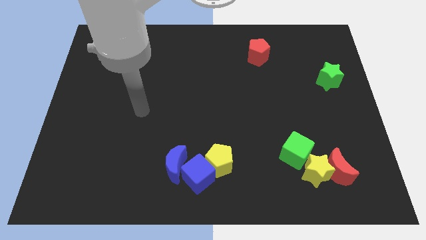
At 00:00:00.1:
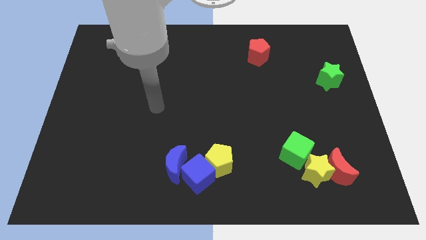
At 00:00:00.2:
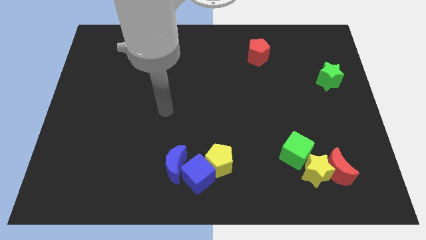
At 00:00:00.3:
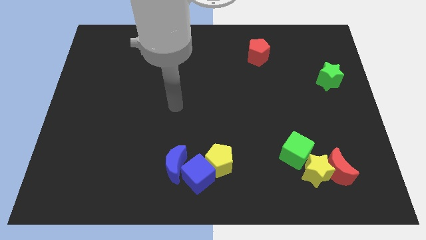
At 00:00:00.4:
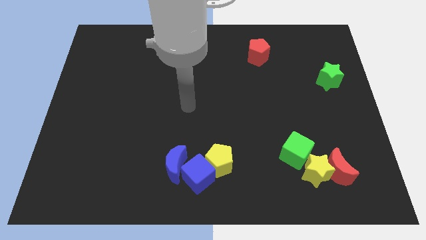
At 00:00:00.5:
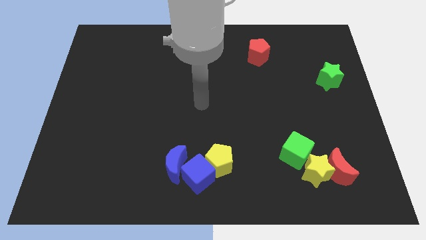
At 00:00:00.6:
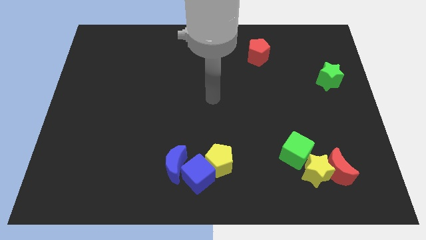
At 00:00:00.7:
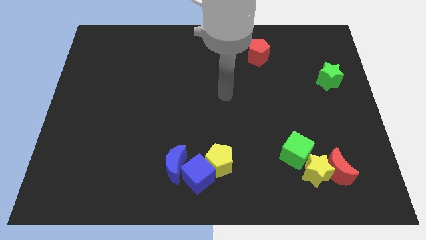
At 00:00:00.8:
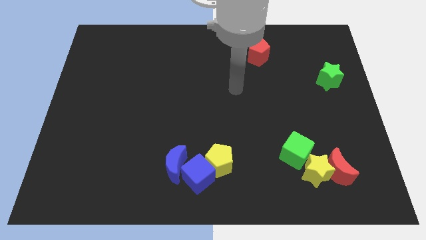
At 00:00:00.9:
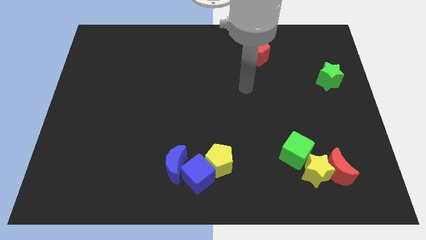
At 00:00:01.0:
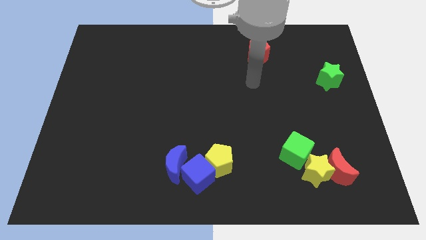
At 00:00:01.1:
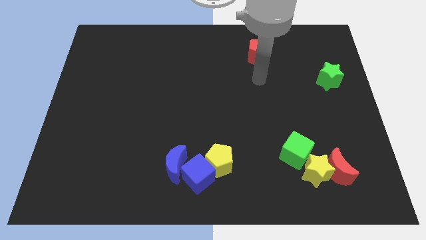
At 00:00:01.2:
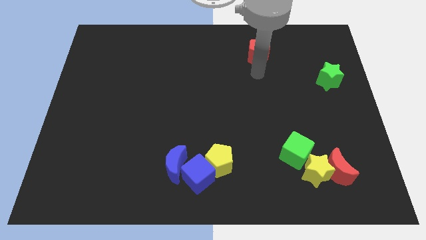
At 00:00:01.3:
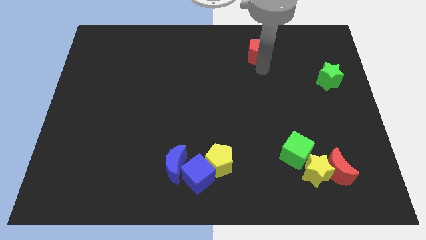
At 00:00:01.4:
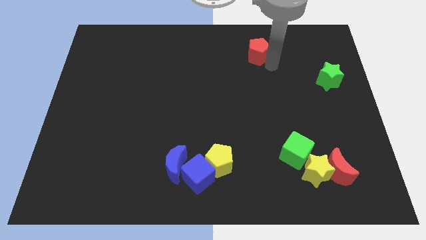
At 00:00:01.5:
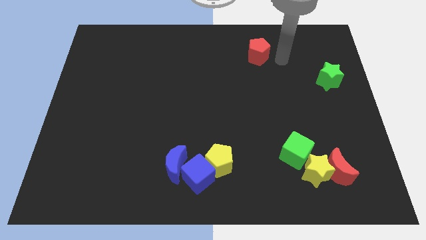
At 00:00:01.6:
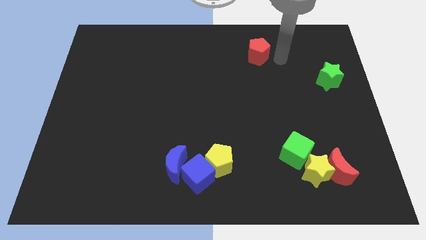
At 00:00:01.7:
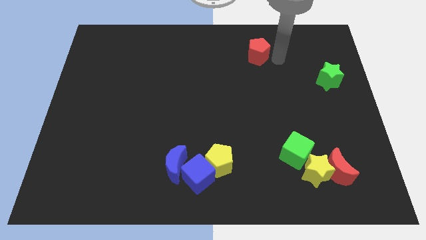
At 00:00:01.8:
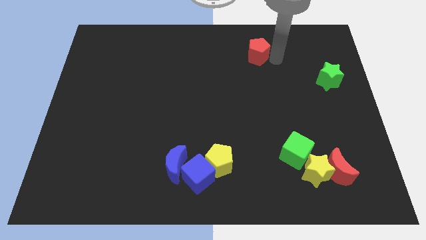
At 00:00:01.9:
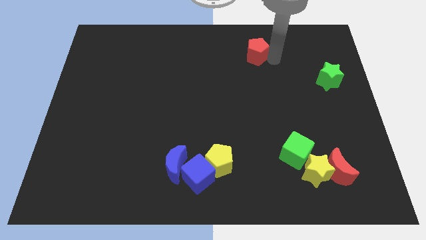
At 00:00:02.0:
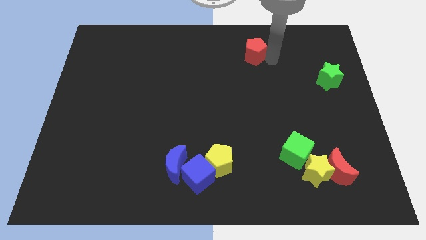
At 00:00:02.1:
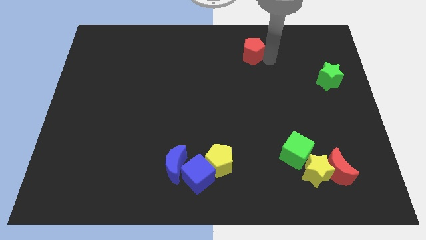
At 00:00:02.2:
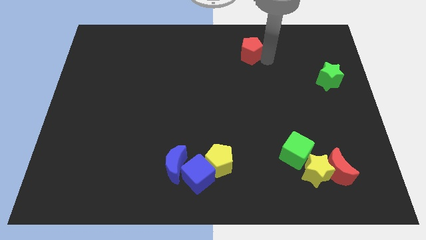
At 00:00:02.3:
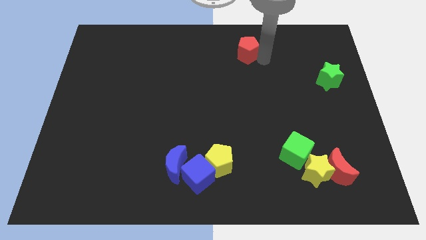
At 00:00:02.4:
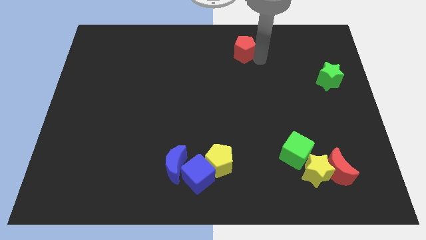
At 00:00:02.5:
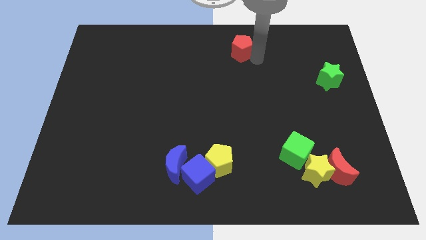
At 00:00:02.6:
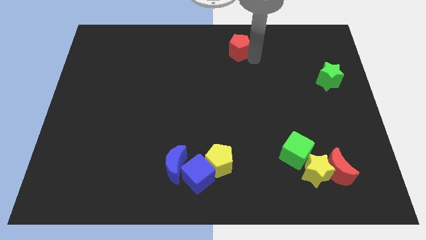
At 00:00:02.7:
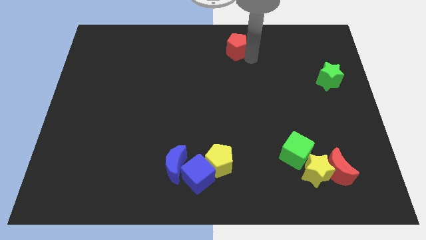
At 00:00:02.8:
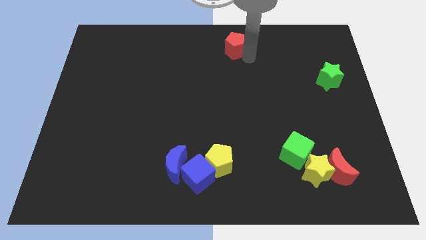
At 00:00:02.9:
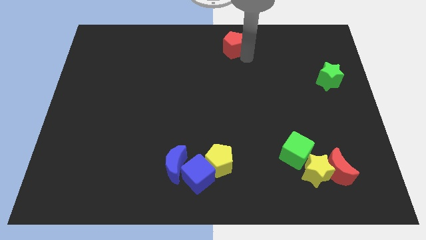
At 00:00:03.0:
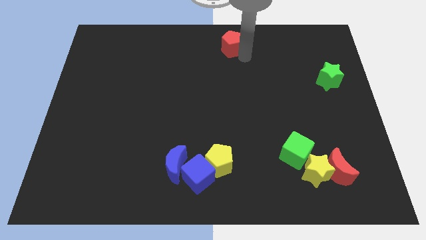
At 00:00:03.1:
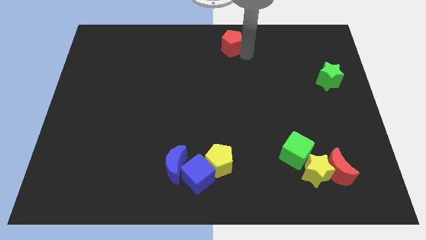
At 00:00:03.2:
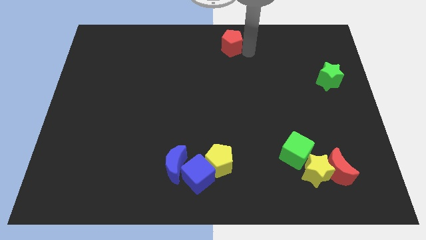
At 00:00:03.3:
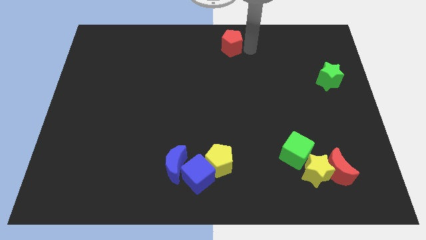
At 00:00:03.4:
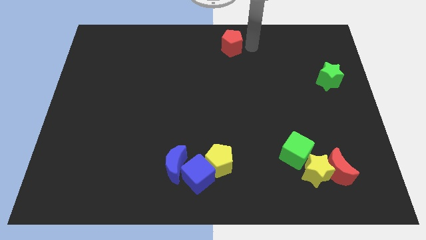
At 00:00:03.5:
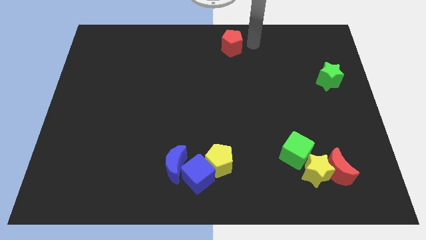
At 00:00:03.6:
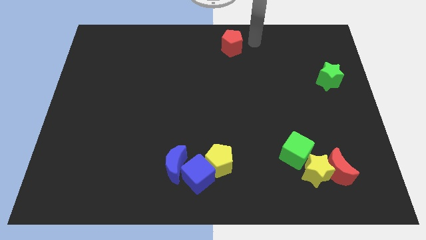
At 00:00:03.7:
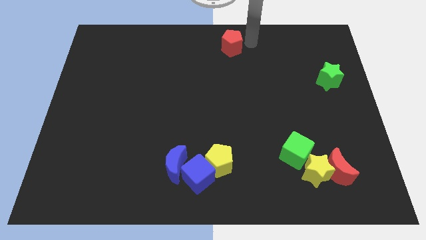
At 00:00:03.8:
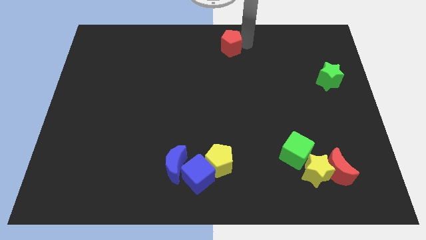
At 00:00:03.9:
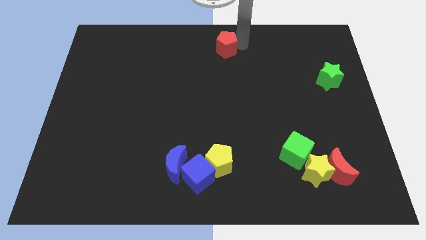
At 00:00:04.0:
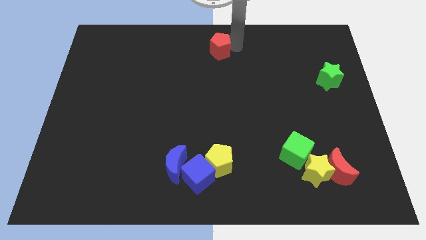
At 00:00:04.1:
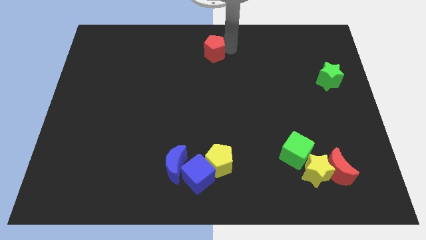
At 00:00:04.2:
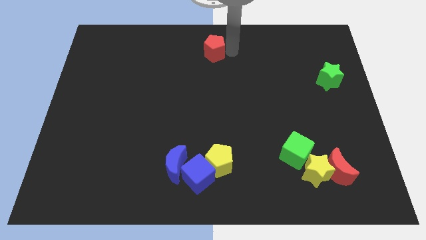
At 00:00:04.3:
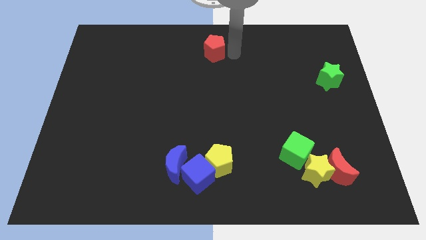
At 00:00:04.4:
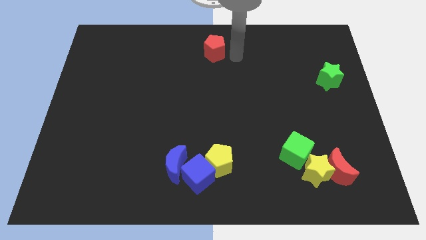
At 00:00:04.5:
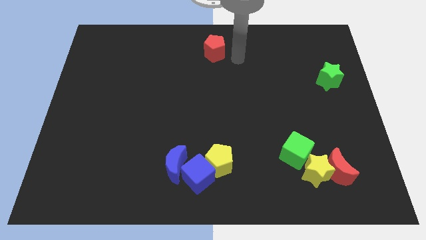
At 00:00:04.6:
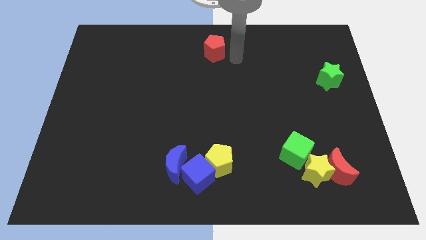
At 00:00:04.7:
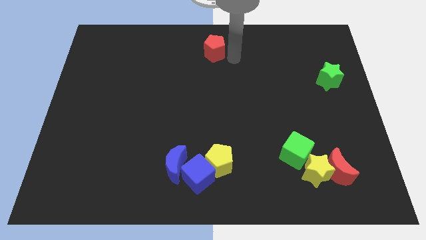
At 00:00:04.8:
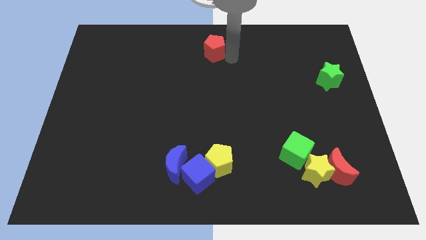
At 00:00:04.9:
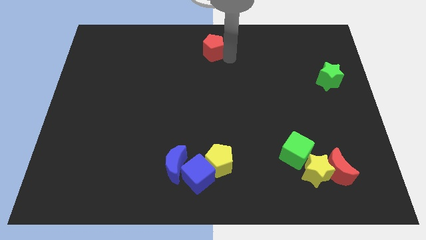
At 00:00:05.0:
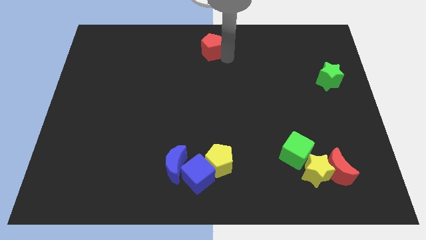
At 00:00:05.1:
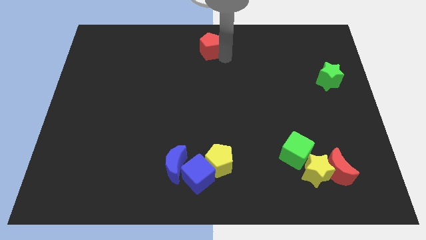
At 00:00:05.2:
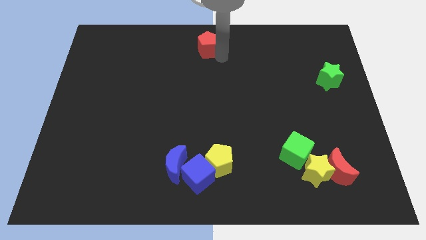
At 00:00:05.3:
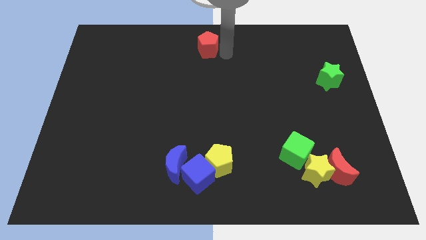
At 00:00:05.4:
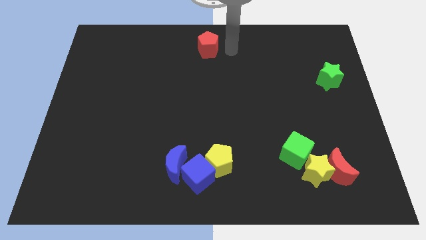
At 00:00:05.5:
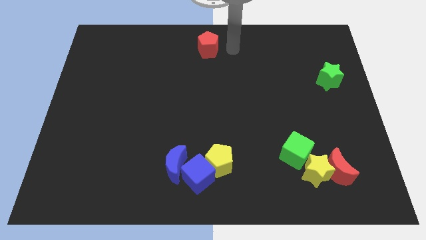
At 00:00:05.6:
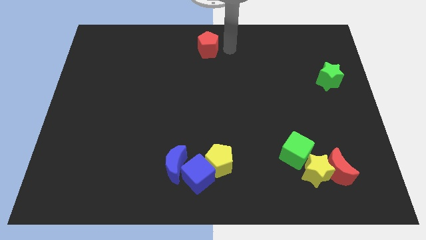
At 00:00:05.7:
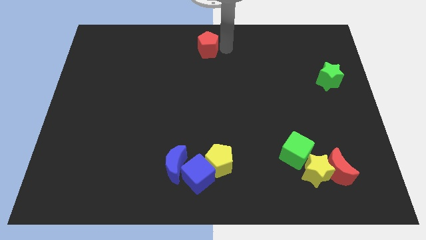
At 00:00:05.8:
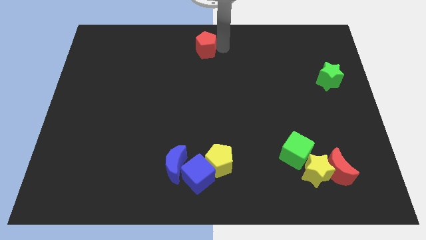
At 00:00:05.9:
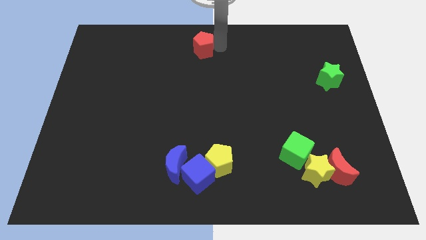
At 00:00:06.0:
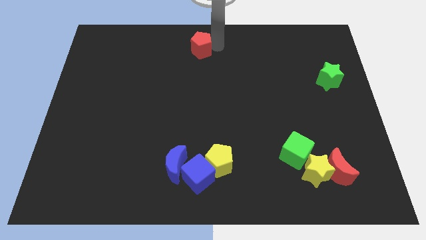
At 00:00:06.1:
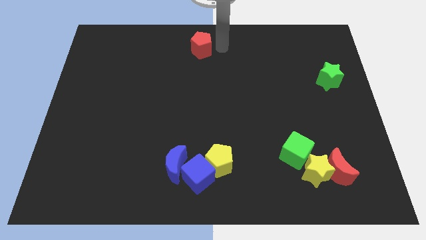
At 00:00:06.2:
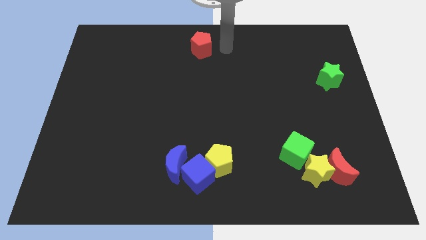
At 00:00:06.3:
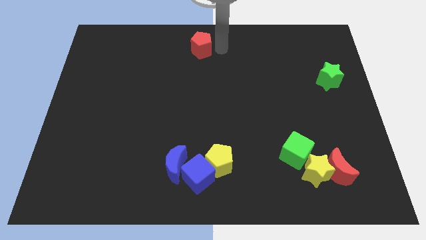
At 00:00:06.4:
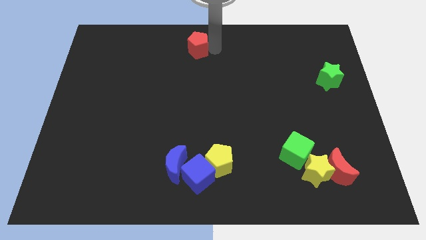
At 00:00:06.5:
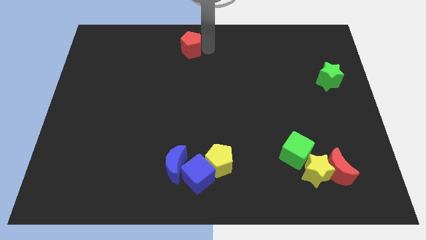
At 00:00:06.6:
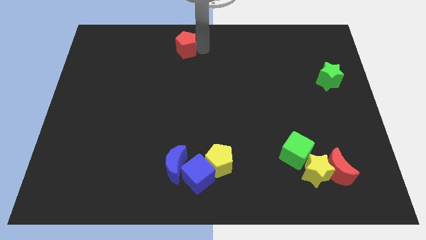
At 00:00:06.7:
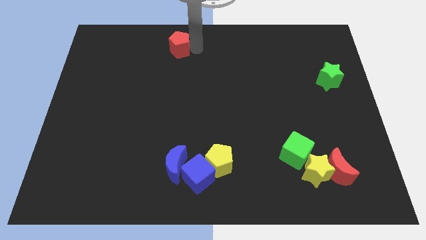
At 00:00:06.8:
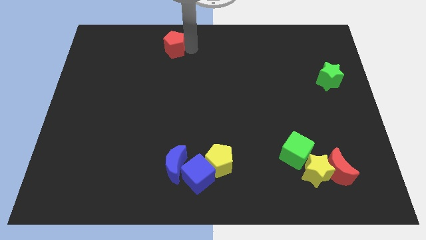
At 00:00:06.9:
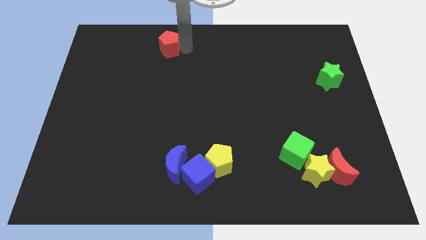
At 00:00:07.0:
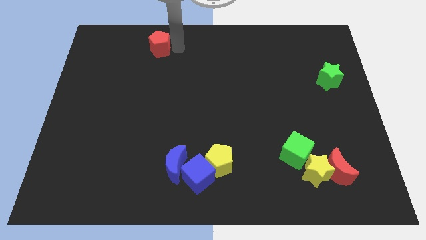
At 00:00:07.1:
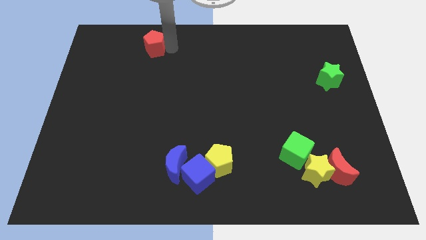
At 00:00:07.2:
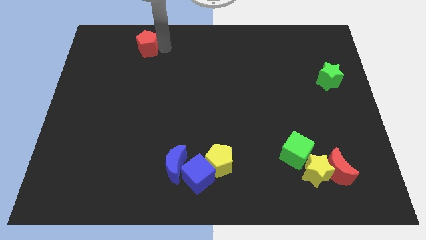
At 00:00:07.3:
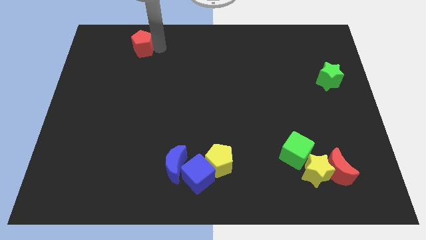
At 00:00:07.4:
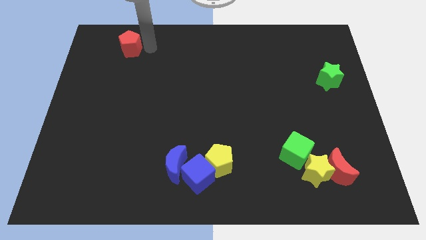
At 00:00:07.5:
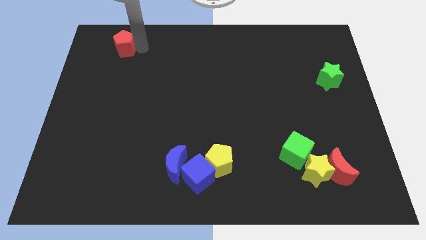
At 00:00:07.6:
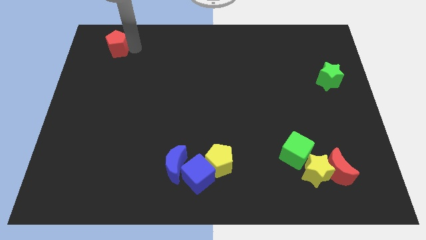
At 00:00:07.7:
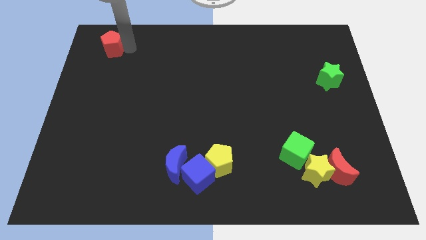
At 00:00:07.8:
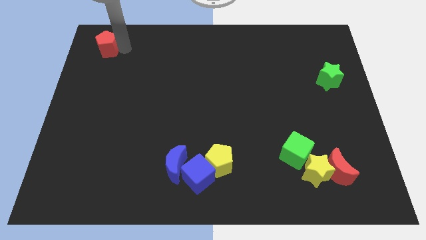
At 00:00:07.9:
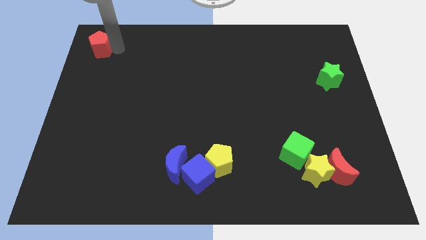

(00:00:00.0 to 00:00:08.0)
move the red pentagon to the upper left corner

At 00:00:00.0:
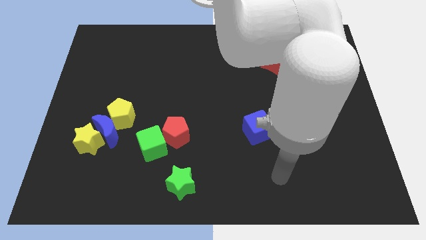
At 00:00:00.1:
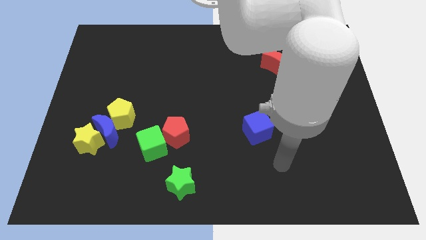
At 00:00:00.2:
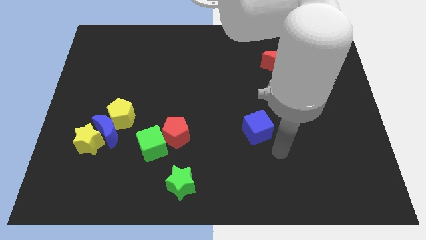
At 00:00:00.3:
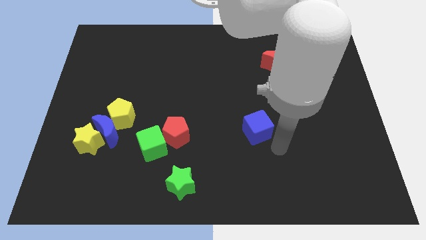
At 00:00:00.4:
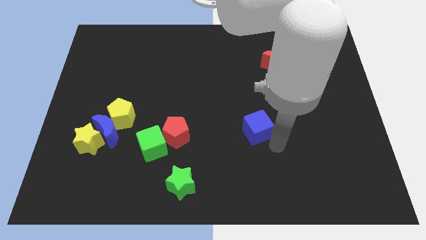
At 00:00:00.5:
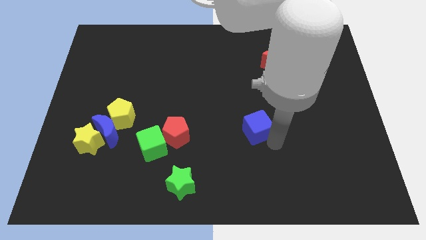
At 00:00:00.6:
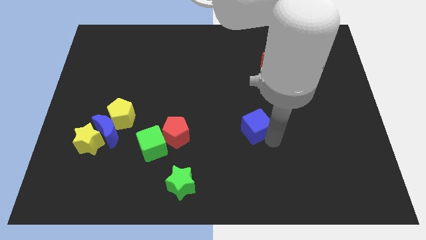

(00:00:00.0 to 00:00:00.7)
slide the blue cube to the center
